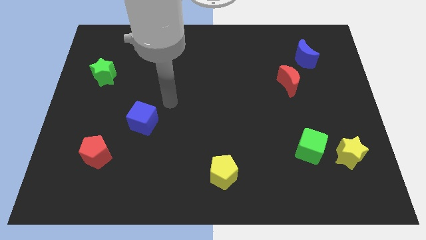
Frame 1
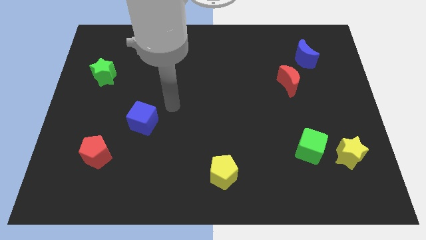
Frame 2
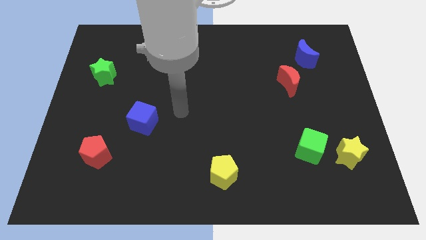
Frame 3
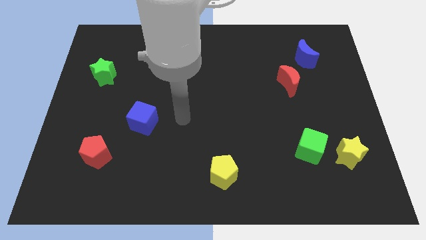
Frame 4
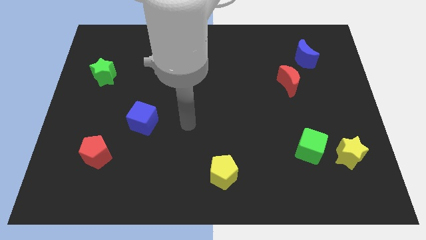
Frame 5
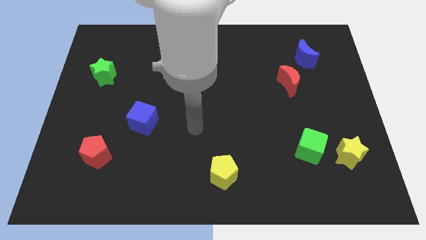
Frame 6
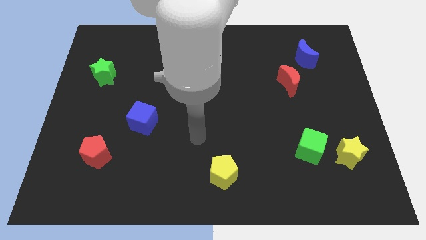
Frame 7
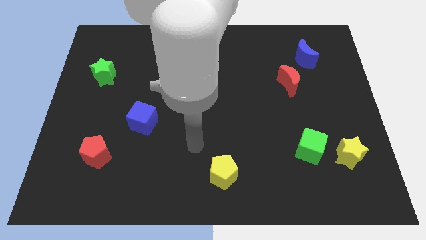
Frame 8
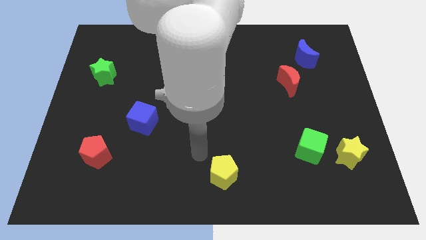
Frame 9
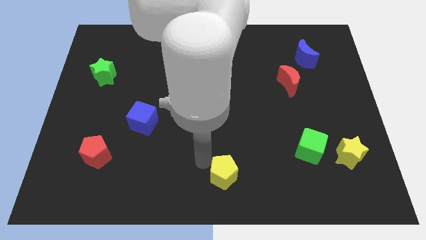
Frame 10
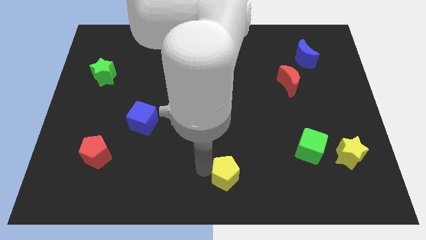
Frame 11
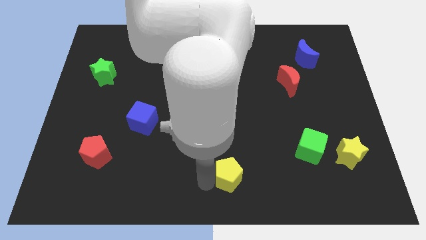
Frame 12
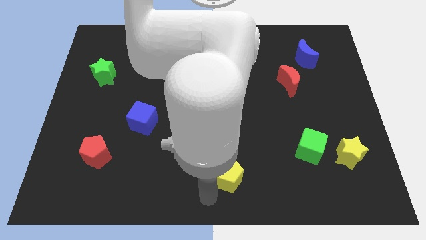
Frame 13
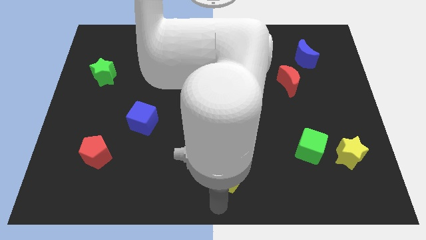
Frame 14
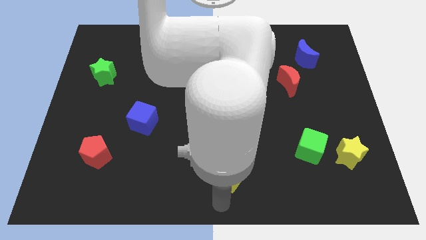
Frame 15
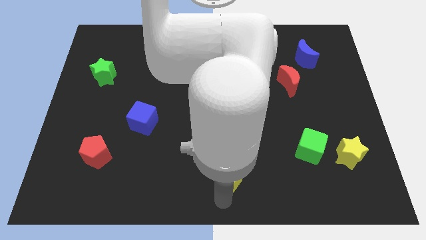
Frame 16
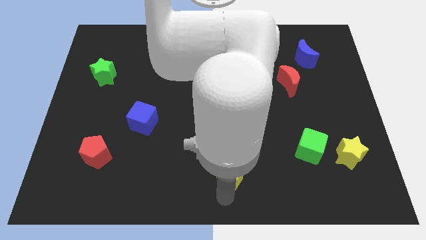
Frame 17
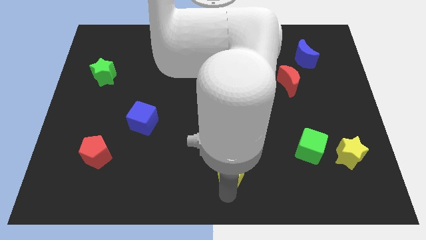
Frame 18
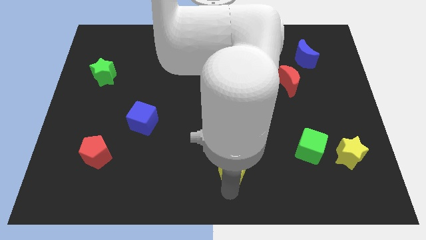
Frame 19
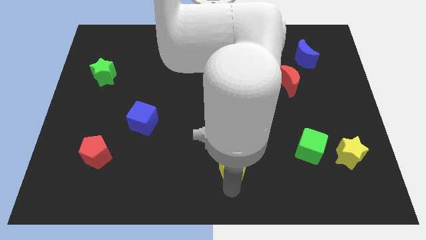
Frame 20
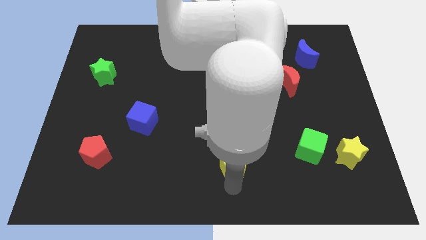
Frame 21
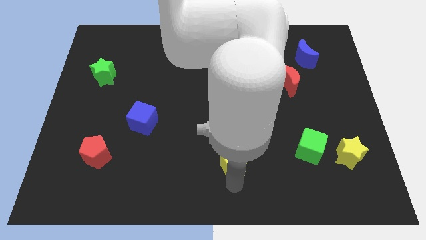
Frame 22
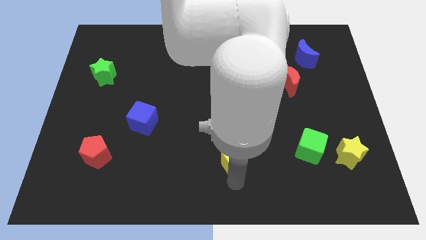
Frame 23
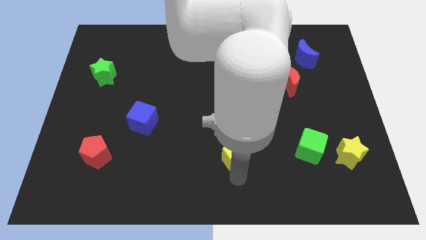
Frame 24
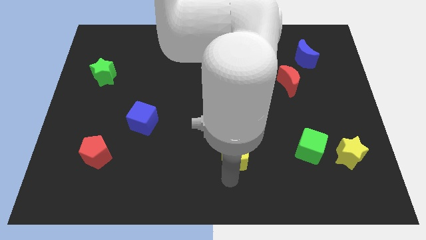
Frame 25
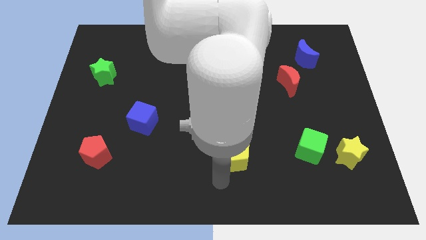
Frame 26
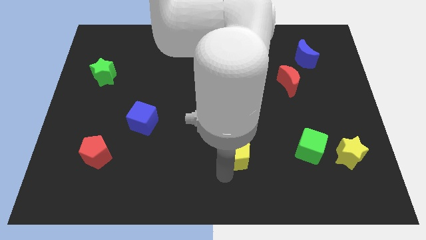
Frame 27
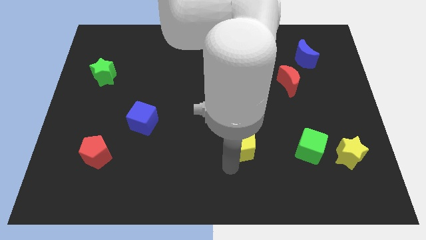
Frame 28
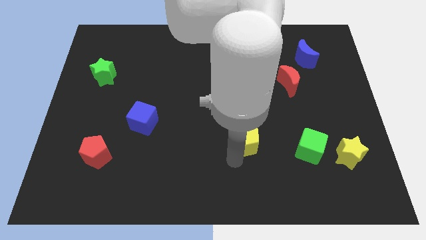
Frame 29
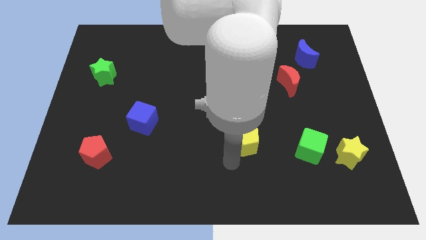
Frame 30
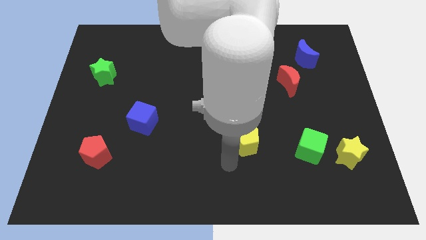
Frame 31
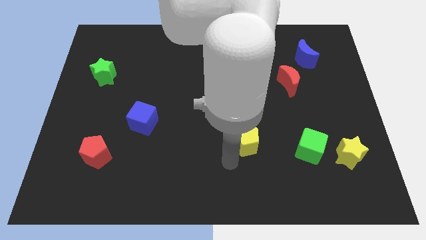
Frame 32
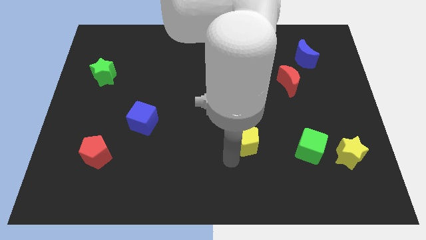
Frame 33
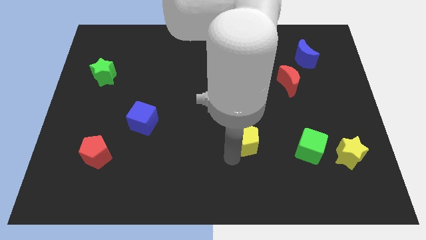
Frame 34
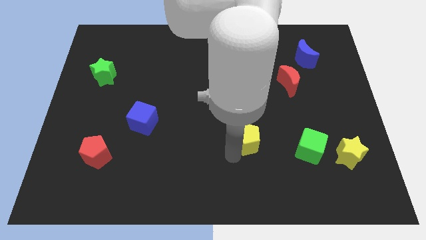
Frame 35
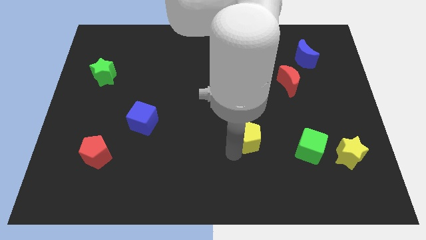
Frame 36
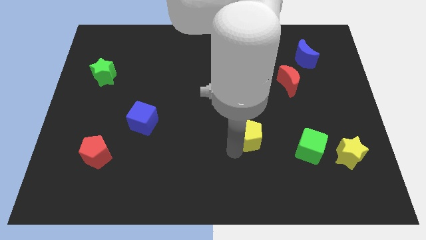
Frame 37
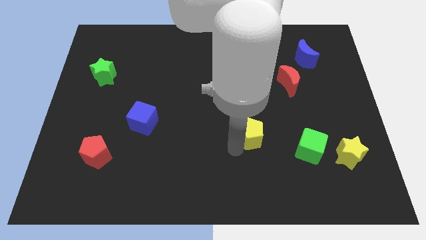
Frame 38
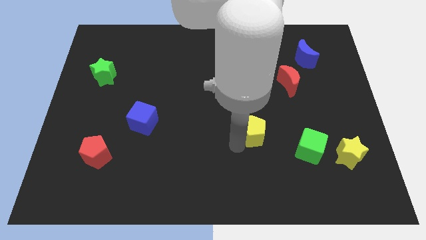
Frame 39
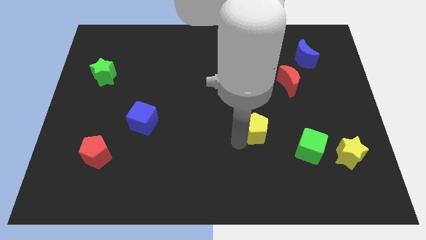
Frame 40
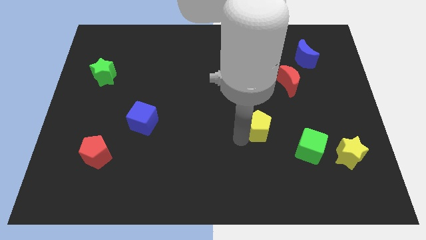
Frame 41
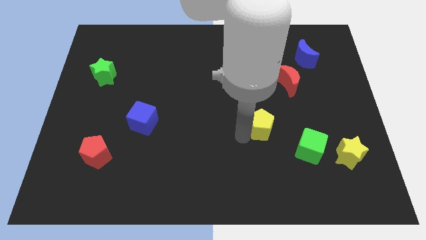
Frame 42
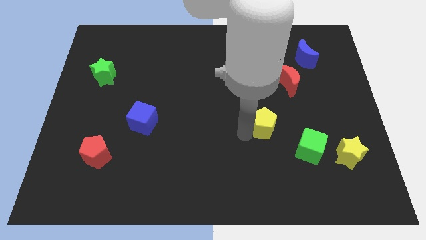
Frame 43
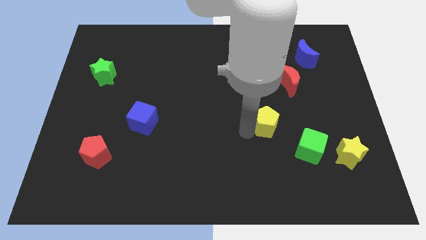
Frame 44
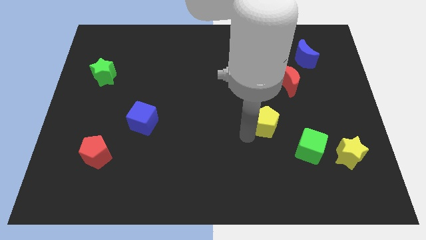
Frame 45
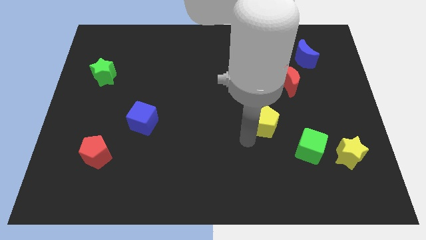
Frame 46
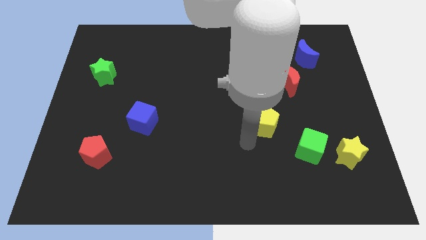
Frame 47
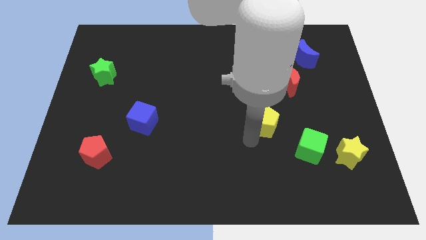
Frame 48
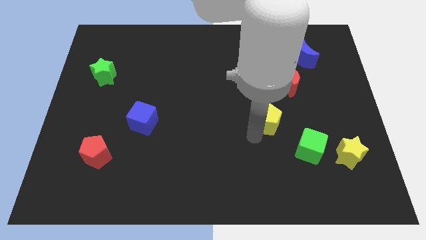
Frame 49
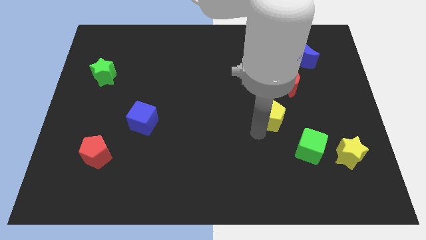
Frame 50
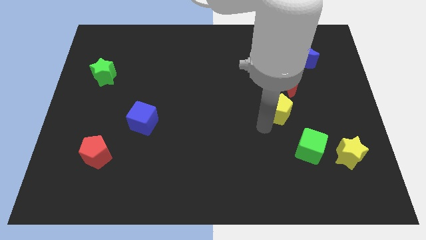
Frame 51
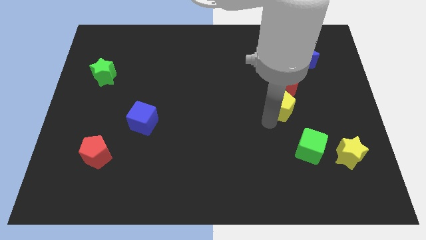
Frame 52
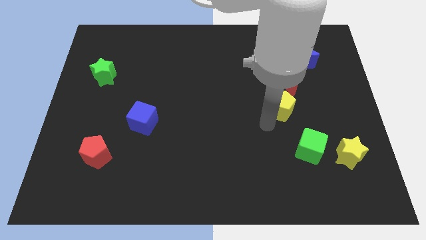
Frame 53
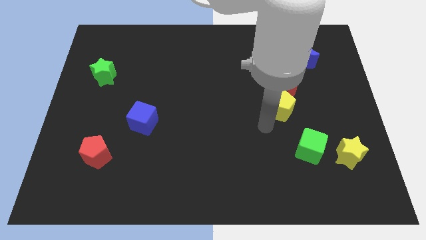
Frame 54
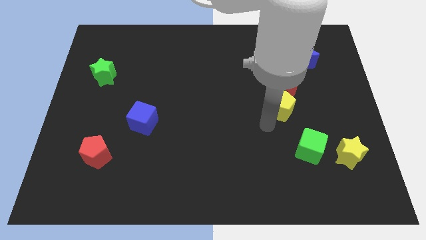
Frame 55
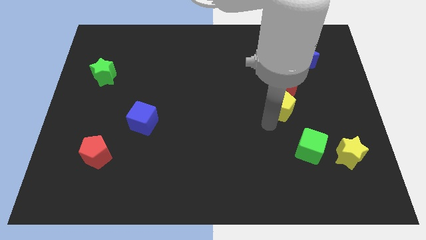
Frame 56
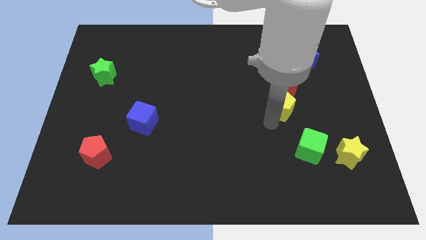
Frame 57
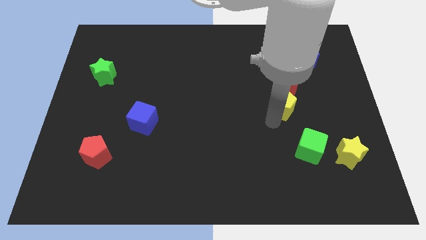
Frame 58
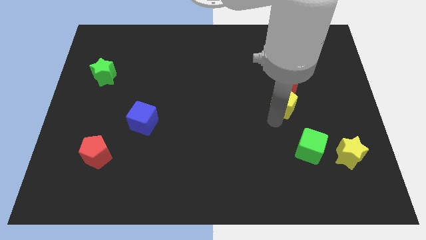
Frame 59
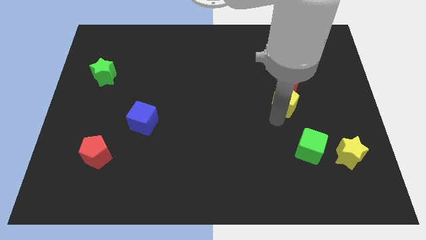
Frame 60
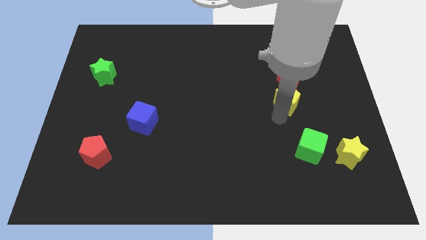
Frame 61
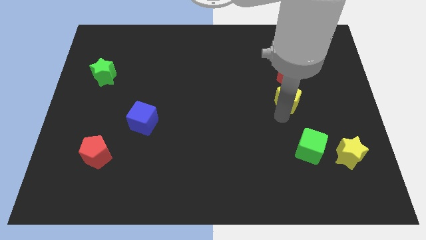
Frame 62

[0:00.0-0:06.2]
slide the yellow pentagon to the red moon

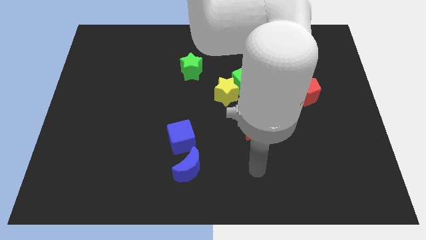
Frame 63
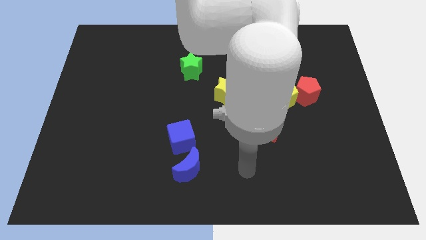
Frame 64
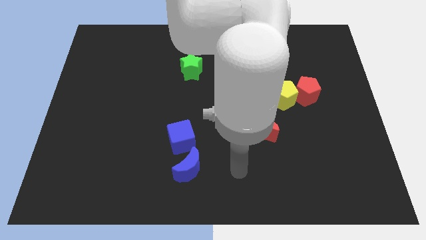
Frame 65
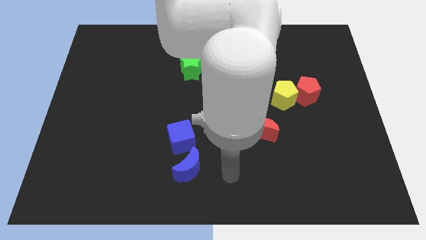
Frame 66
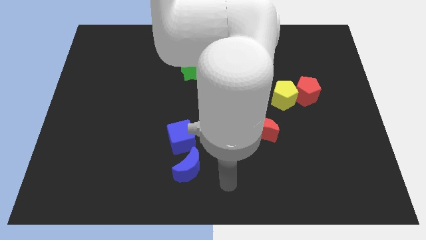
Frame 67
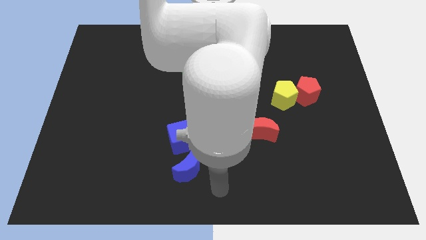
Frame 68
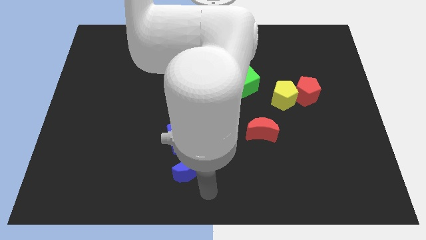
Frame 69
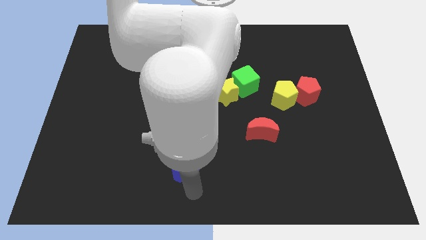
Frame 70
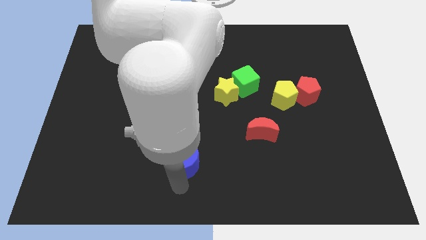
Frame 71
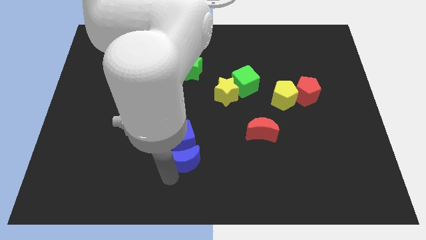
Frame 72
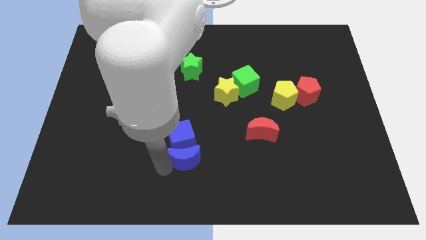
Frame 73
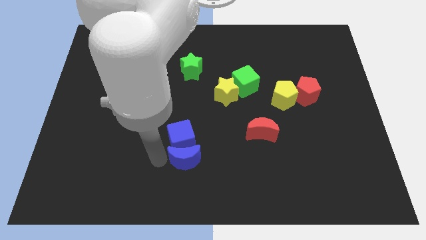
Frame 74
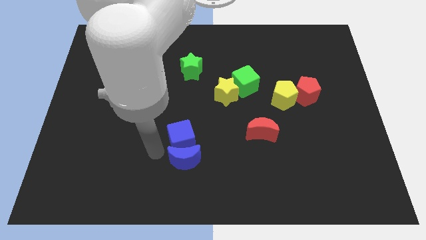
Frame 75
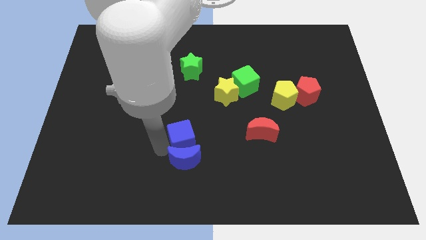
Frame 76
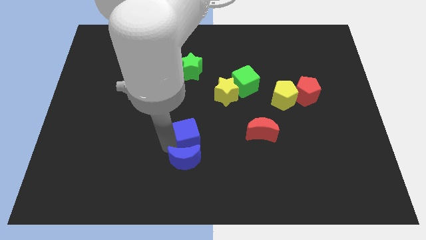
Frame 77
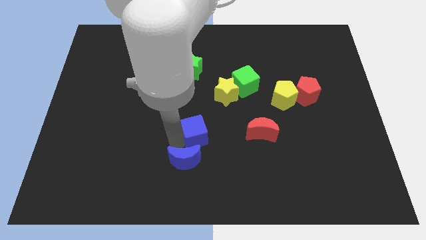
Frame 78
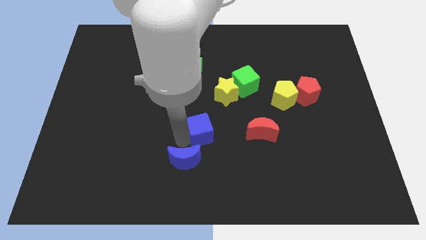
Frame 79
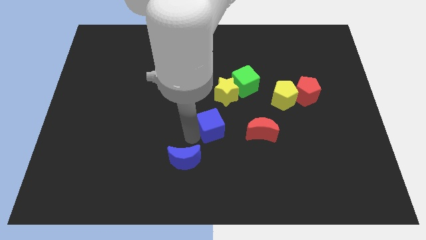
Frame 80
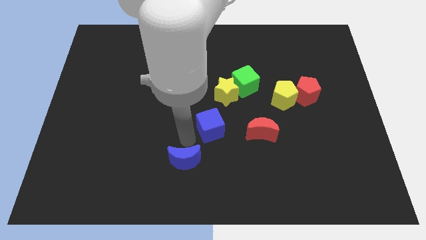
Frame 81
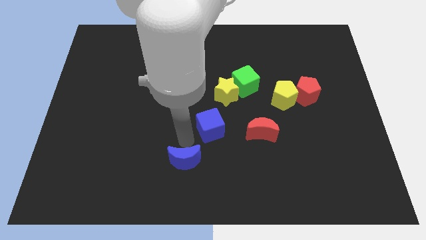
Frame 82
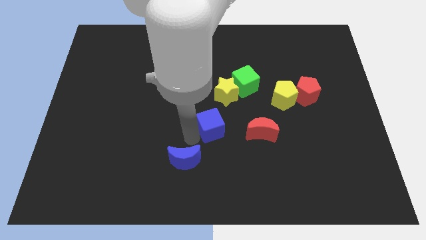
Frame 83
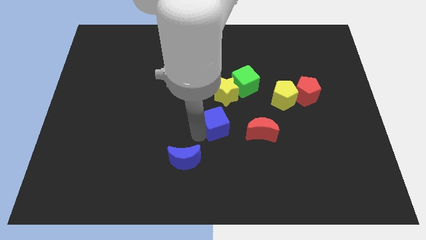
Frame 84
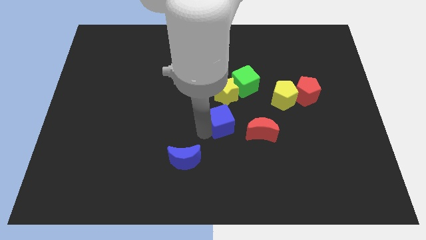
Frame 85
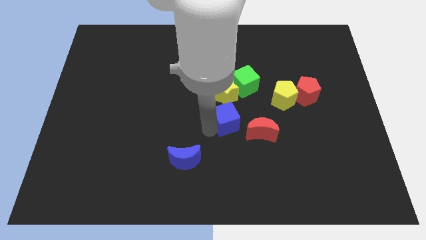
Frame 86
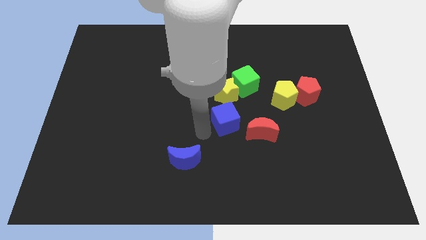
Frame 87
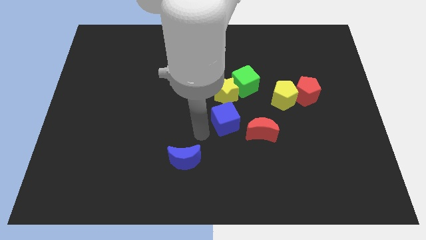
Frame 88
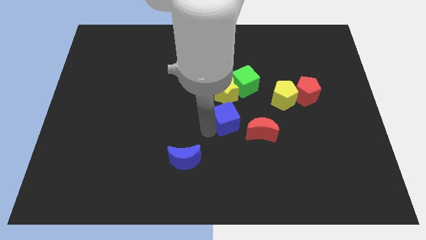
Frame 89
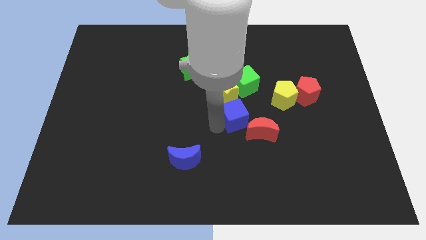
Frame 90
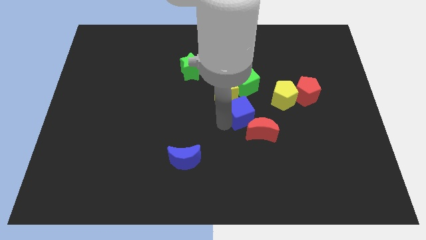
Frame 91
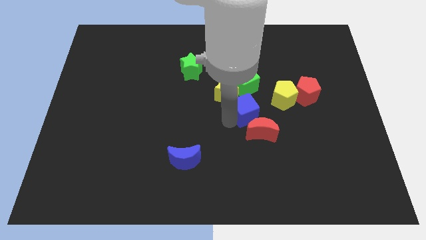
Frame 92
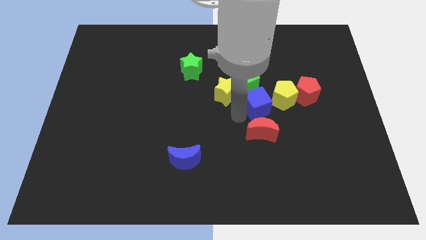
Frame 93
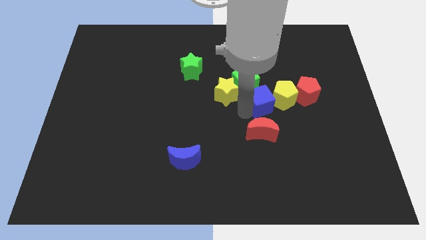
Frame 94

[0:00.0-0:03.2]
move the blue cube to the yellow pentagon
